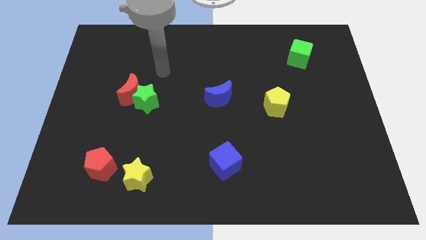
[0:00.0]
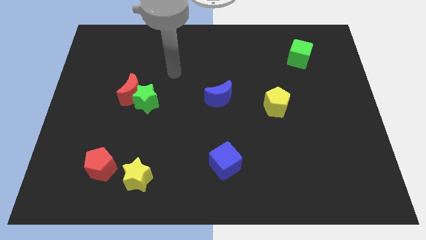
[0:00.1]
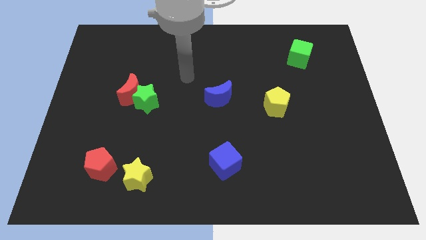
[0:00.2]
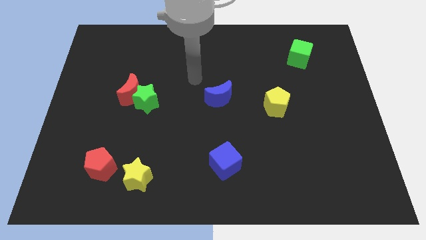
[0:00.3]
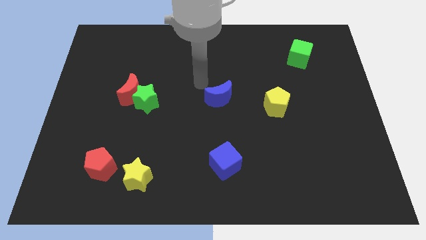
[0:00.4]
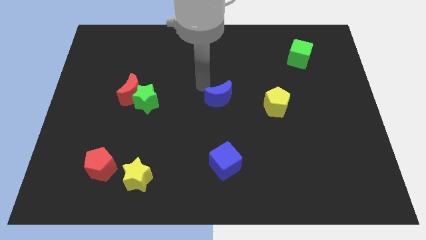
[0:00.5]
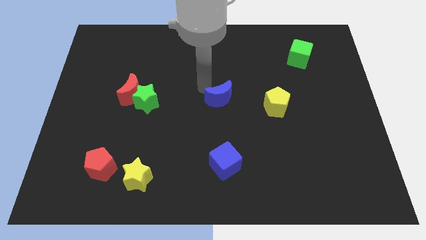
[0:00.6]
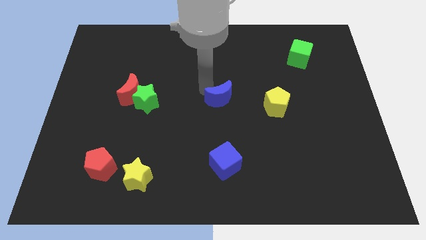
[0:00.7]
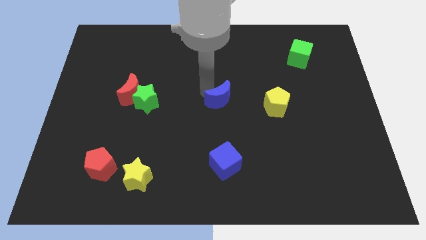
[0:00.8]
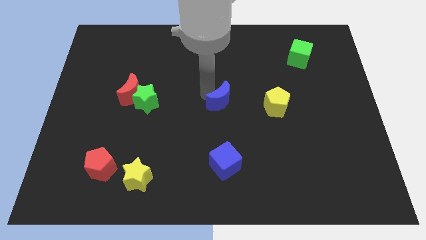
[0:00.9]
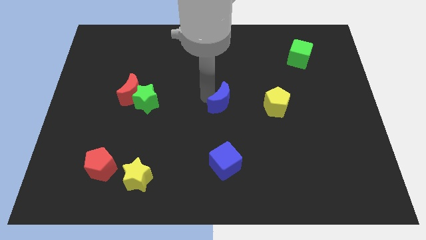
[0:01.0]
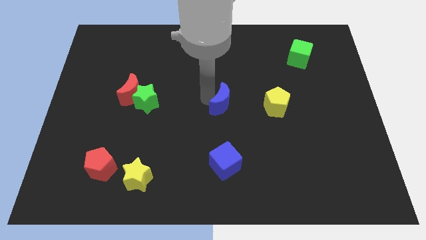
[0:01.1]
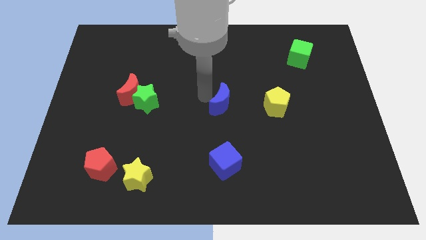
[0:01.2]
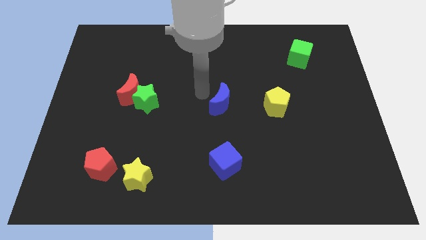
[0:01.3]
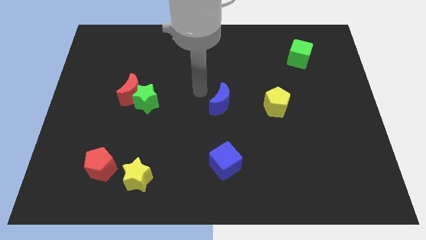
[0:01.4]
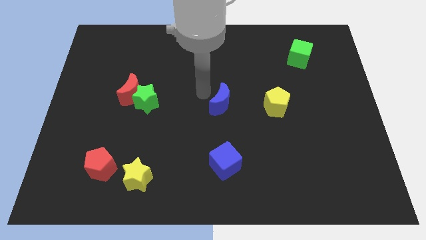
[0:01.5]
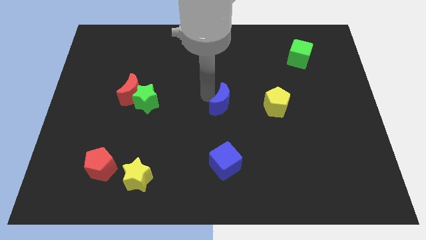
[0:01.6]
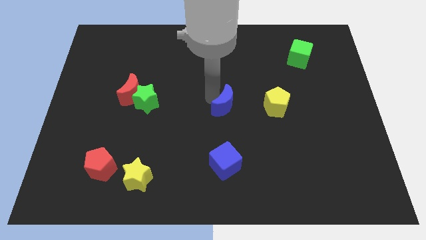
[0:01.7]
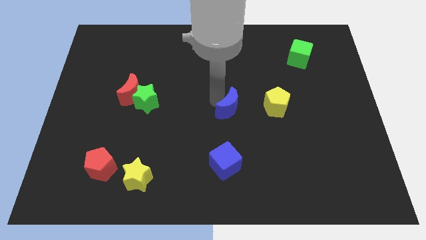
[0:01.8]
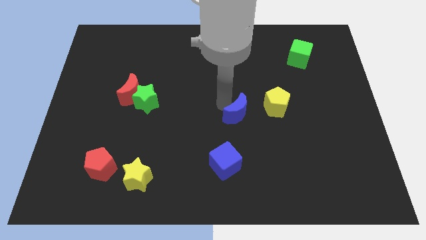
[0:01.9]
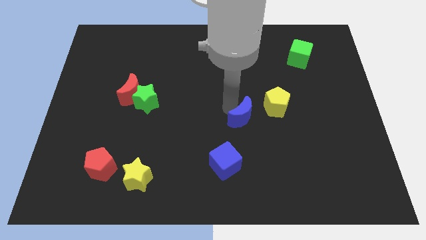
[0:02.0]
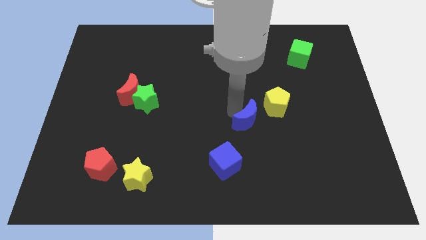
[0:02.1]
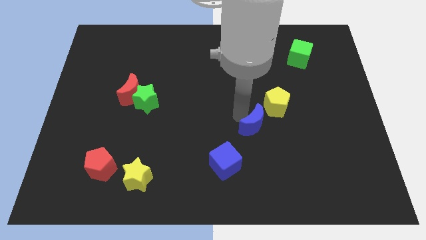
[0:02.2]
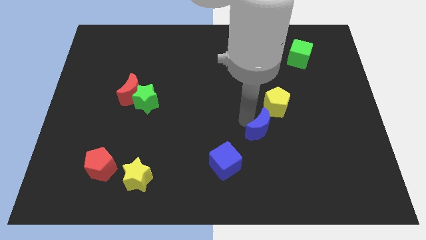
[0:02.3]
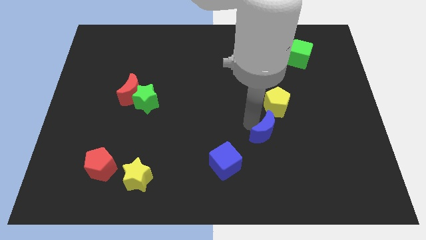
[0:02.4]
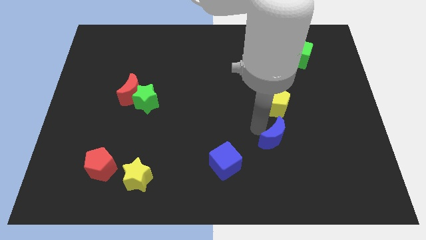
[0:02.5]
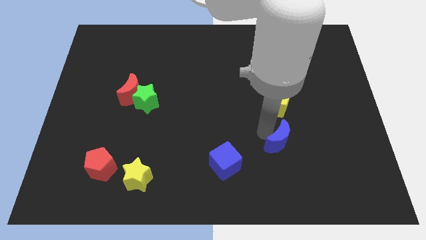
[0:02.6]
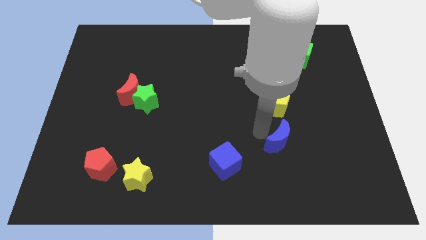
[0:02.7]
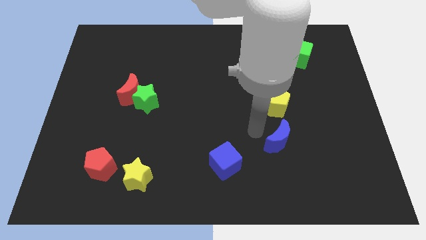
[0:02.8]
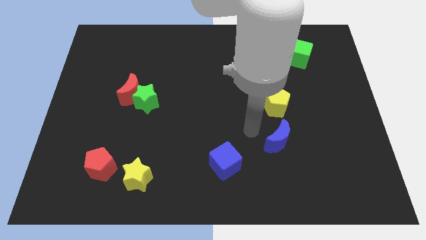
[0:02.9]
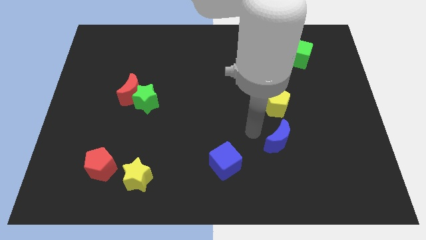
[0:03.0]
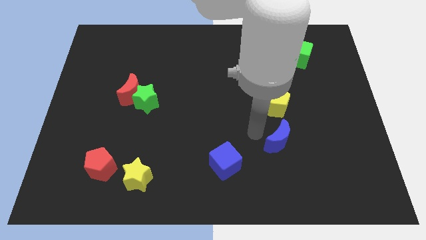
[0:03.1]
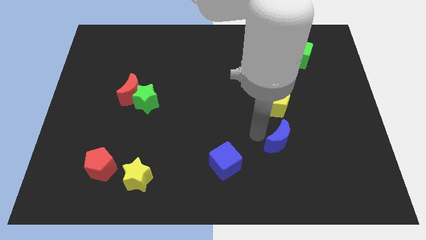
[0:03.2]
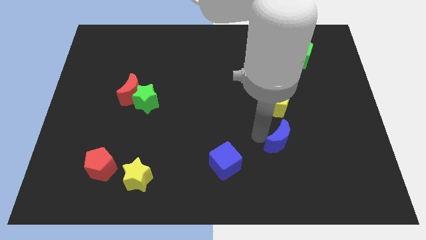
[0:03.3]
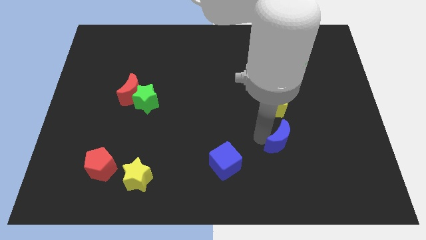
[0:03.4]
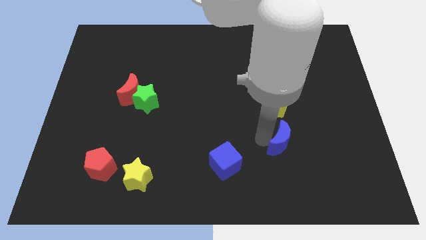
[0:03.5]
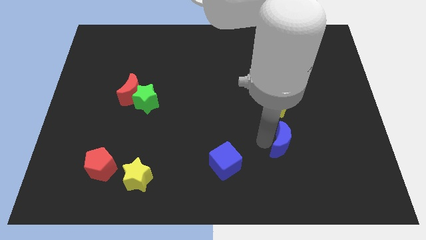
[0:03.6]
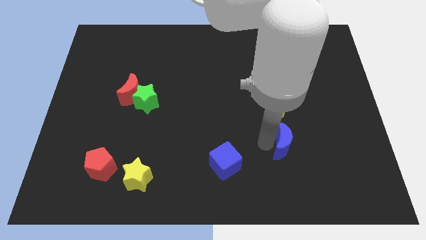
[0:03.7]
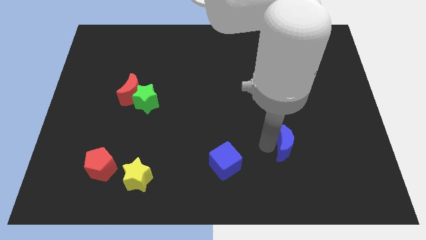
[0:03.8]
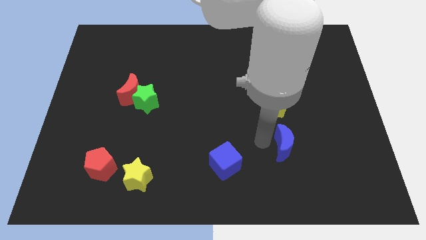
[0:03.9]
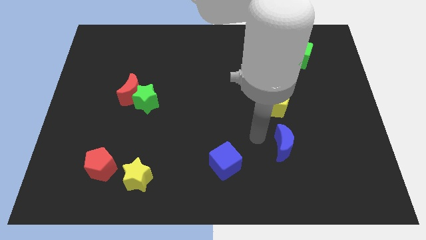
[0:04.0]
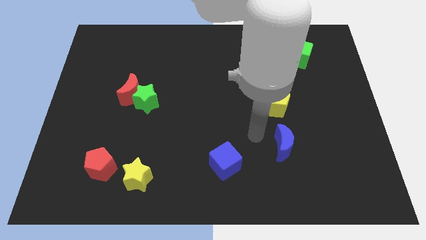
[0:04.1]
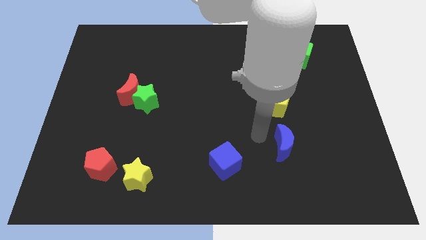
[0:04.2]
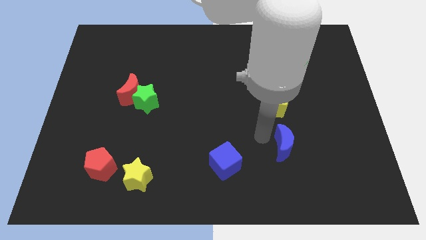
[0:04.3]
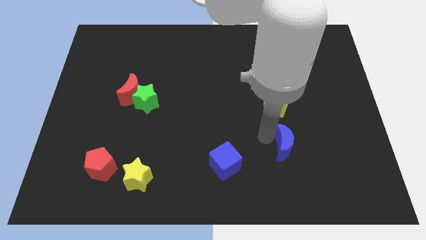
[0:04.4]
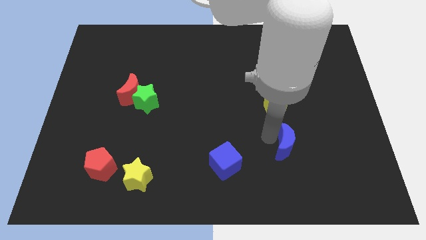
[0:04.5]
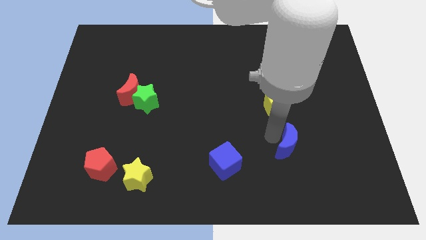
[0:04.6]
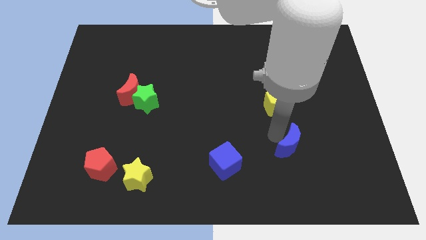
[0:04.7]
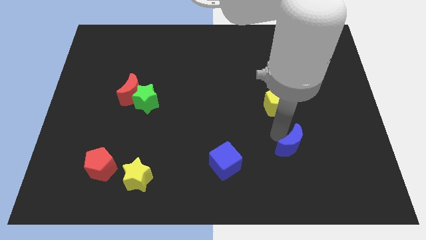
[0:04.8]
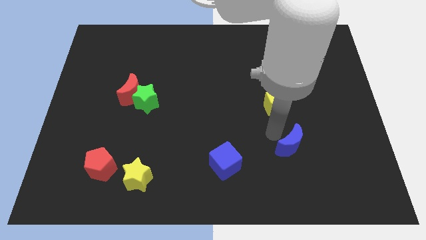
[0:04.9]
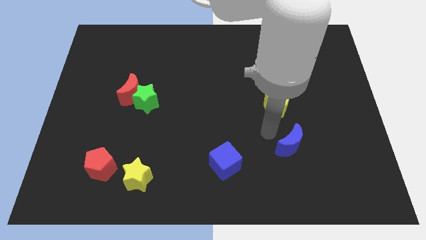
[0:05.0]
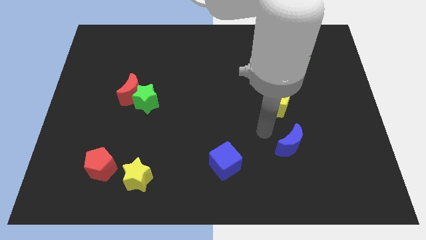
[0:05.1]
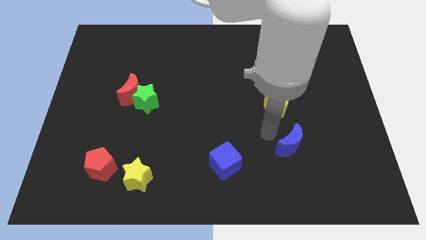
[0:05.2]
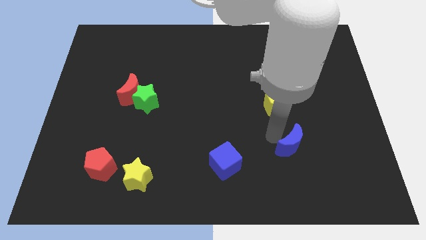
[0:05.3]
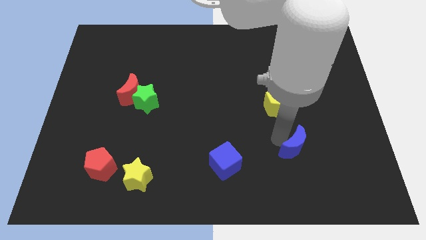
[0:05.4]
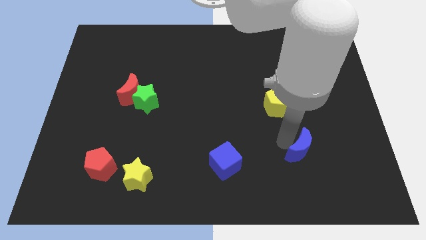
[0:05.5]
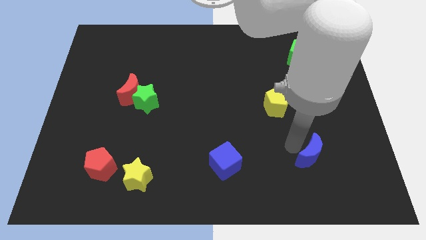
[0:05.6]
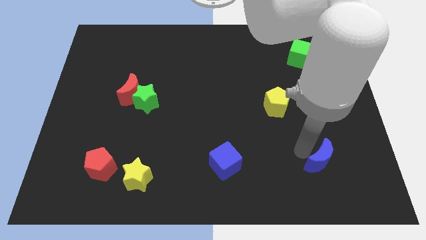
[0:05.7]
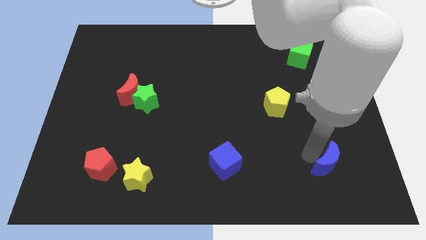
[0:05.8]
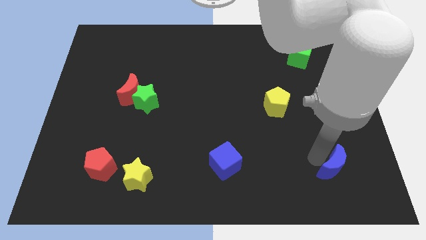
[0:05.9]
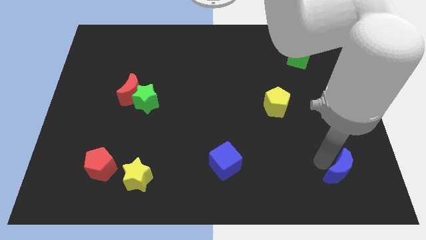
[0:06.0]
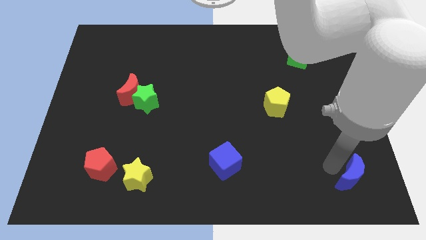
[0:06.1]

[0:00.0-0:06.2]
move the blue moon to the lower right corner
